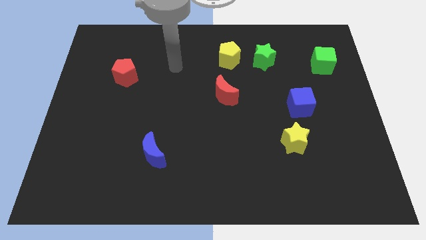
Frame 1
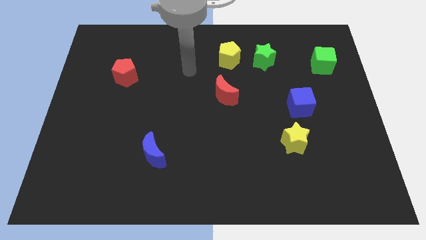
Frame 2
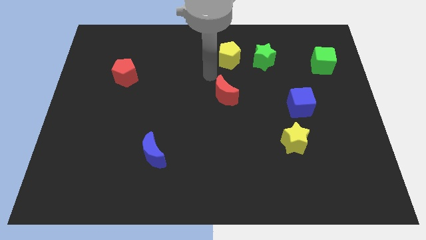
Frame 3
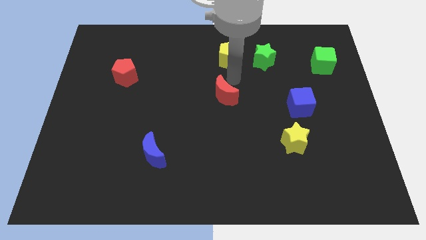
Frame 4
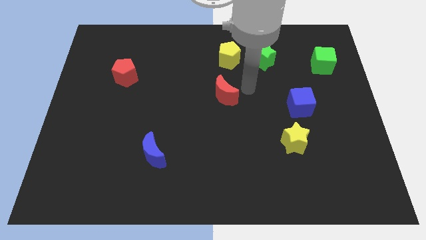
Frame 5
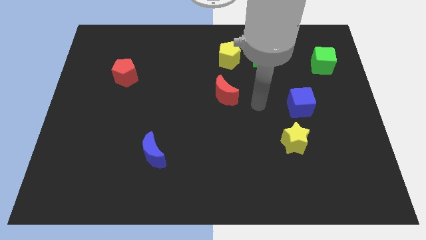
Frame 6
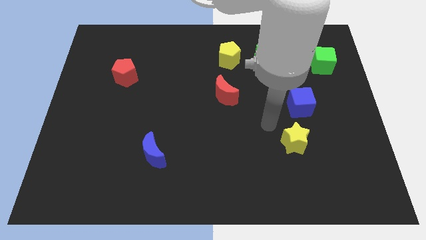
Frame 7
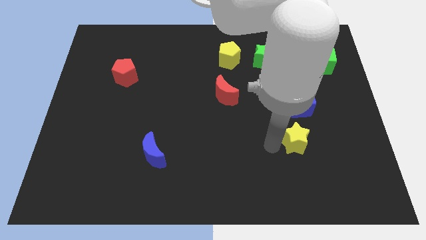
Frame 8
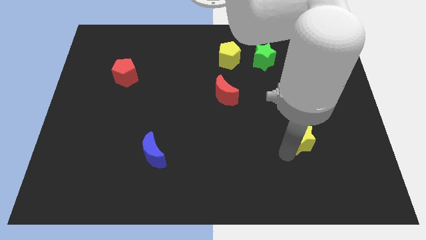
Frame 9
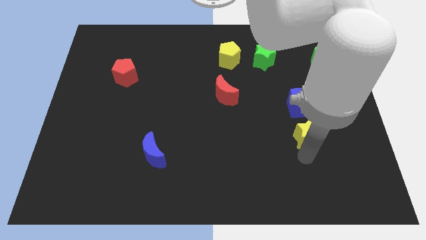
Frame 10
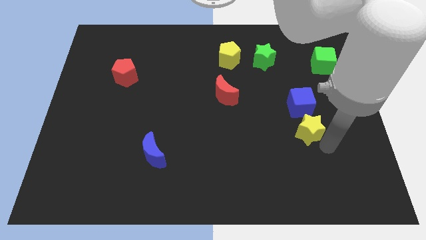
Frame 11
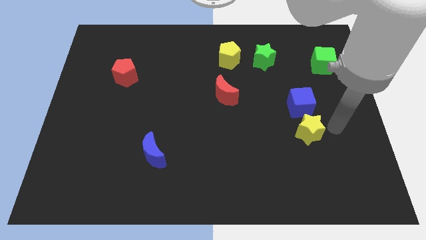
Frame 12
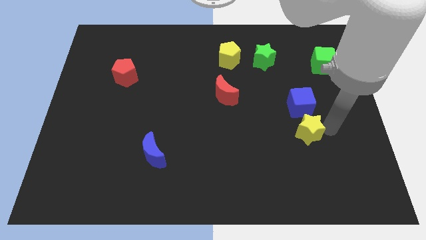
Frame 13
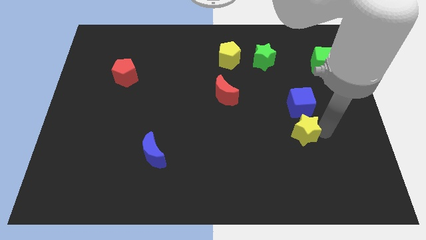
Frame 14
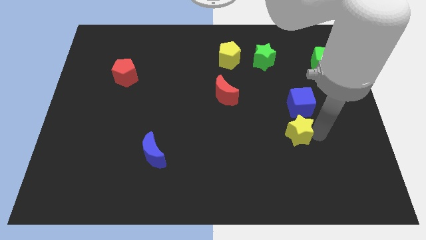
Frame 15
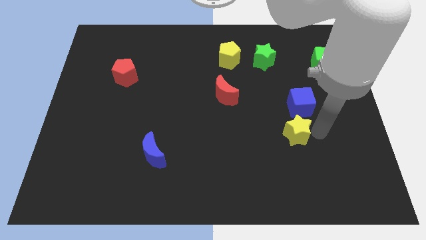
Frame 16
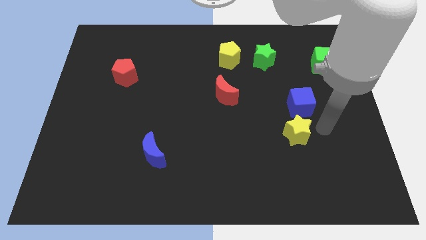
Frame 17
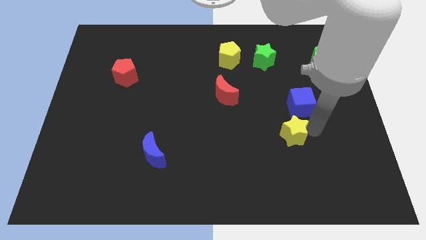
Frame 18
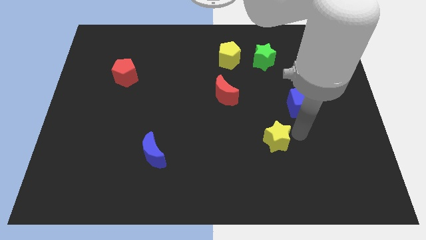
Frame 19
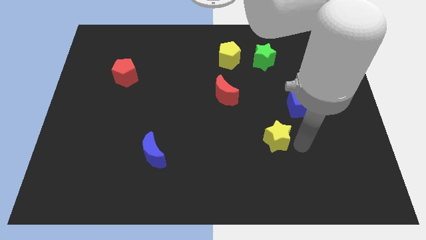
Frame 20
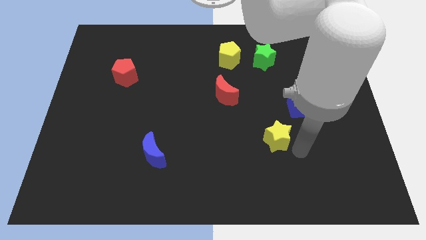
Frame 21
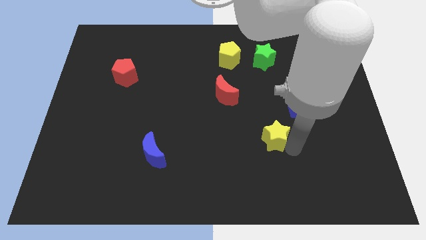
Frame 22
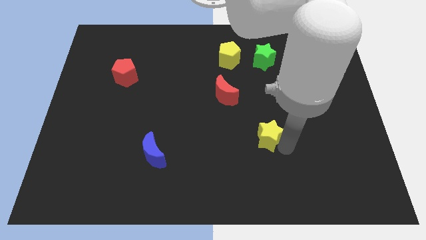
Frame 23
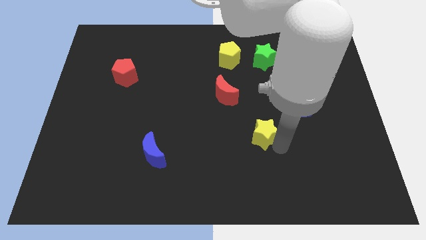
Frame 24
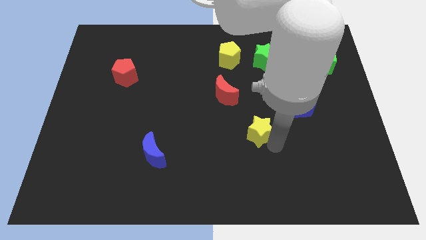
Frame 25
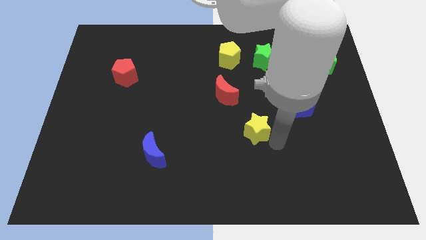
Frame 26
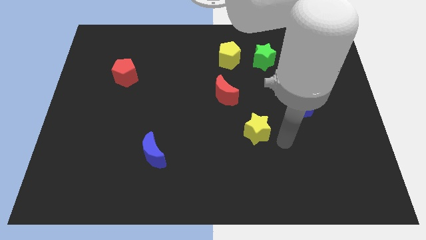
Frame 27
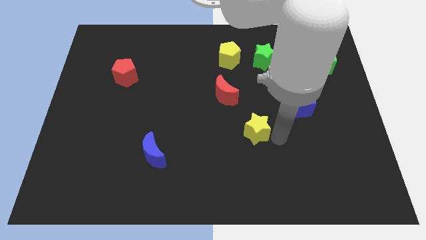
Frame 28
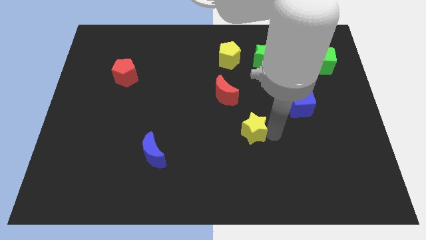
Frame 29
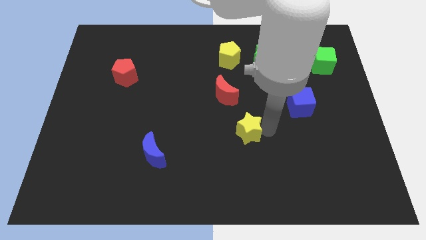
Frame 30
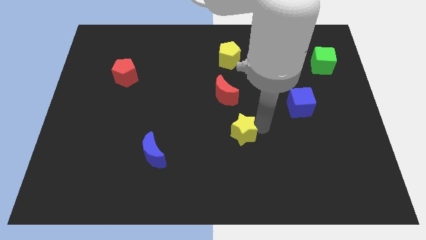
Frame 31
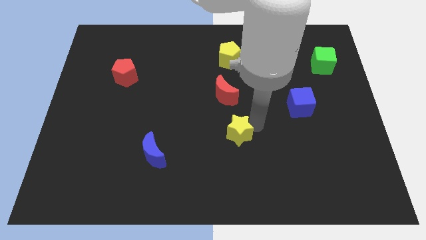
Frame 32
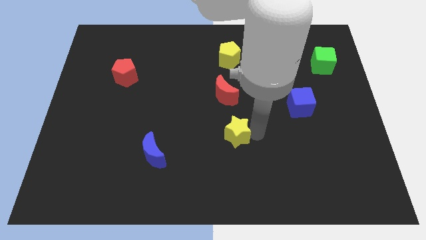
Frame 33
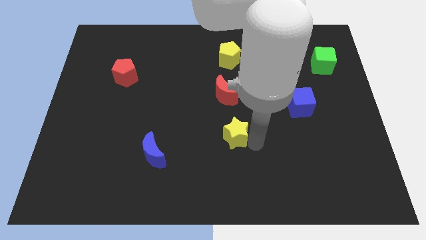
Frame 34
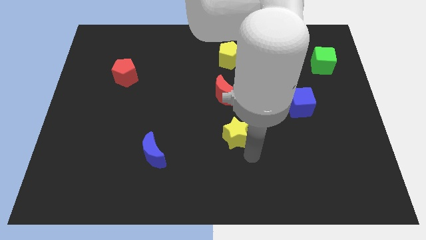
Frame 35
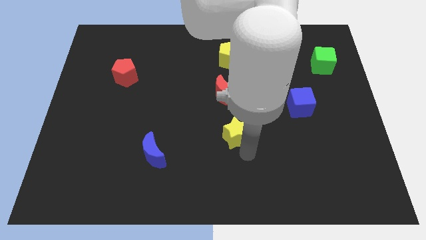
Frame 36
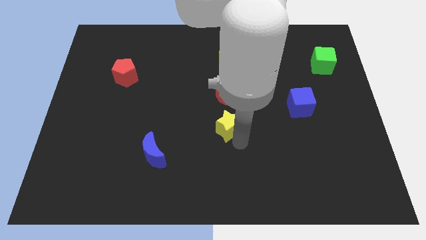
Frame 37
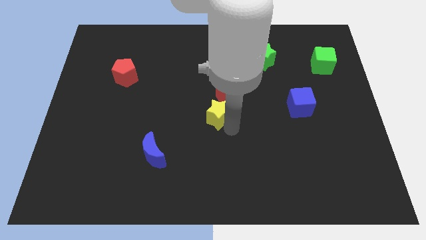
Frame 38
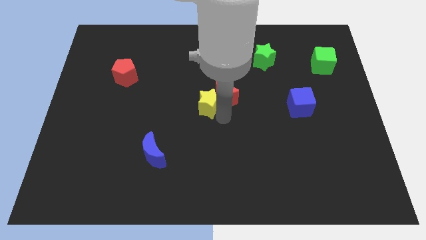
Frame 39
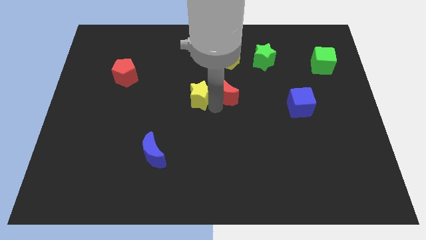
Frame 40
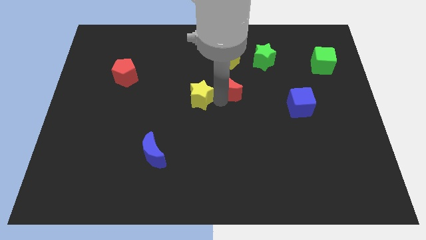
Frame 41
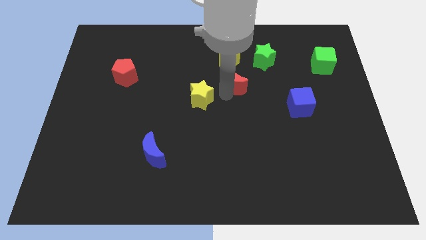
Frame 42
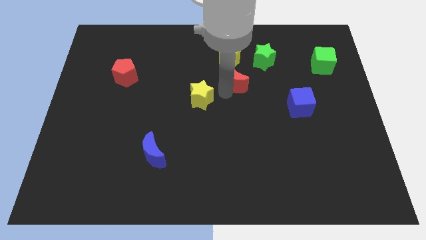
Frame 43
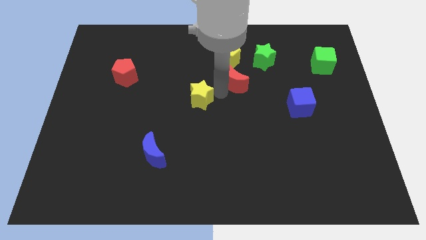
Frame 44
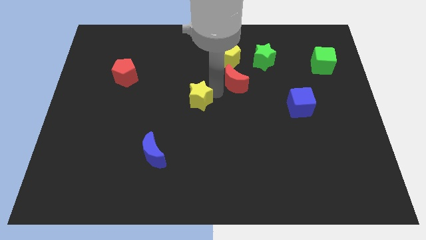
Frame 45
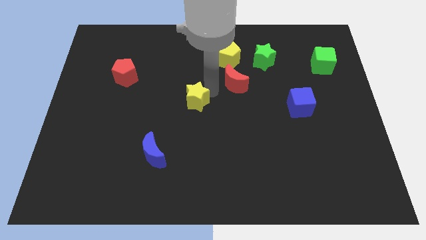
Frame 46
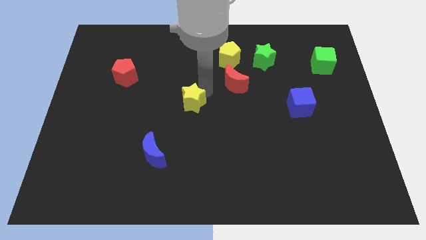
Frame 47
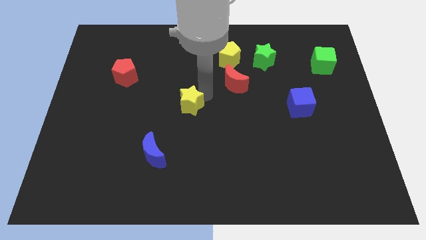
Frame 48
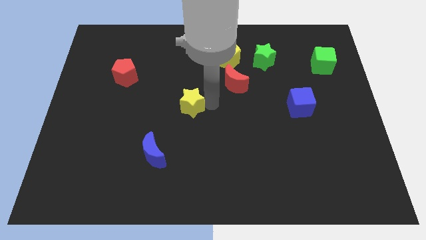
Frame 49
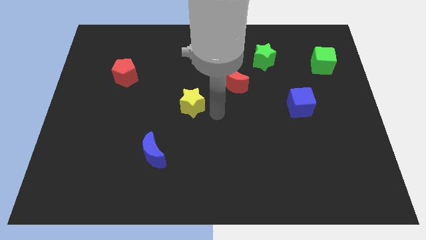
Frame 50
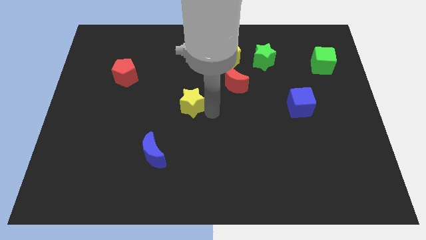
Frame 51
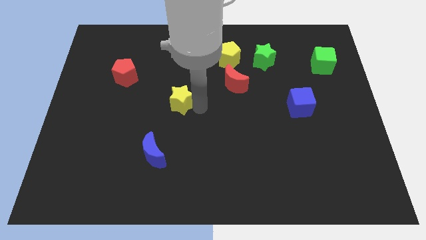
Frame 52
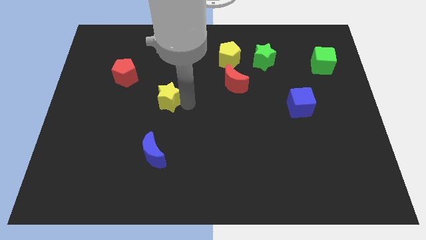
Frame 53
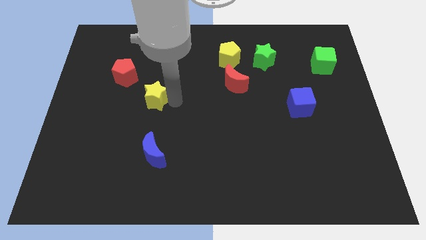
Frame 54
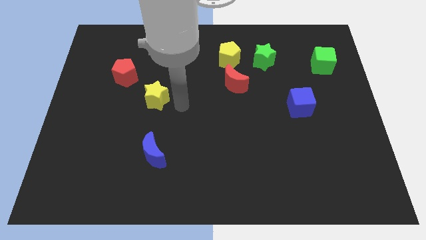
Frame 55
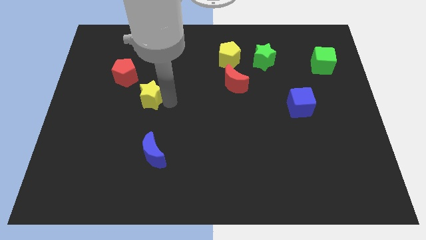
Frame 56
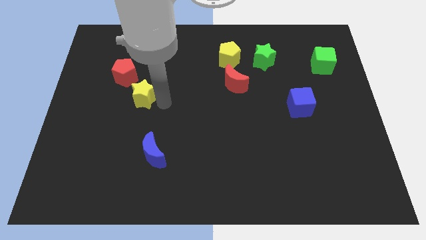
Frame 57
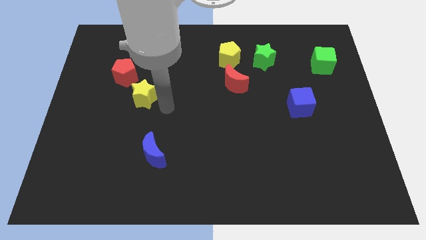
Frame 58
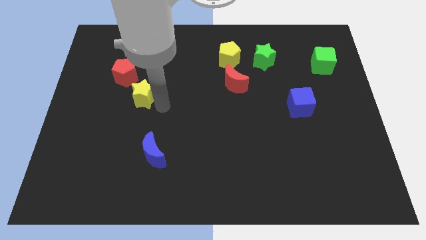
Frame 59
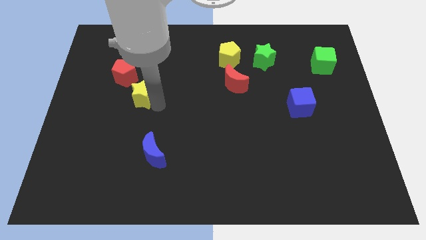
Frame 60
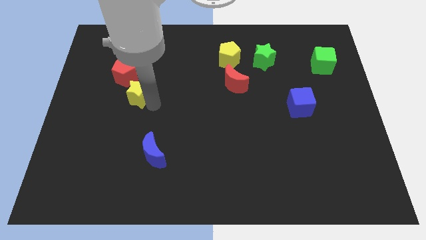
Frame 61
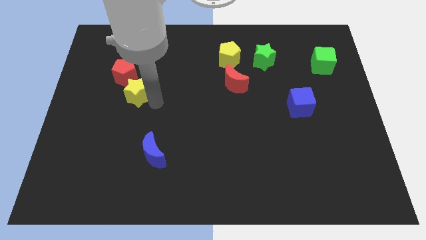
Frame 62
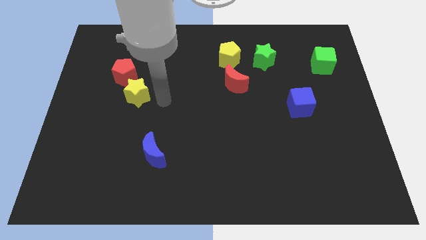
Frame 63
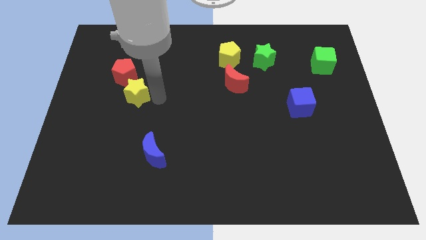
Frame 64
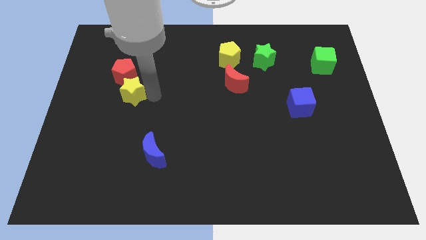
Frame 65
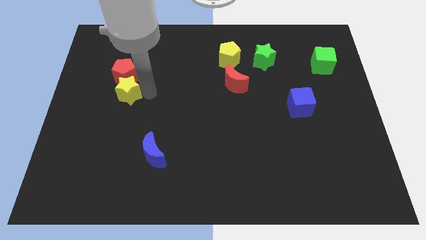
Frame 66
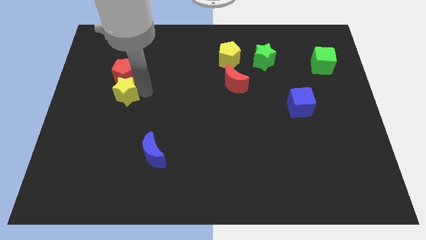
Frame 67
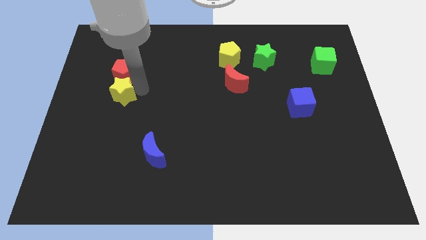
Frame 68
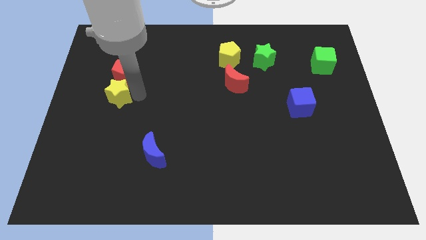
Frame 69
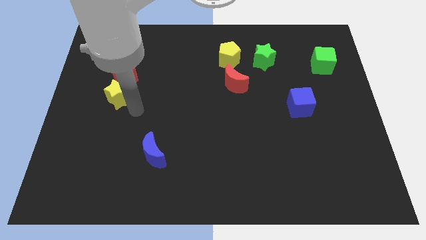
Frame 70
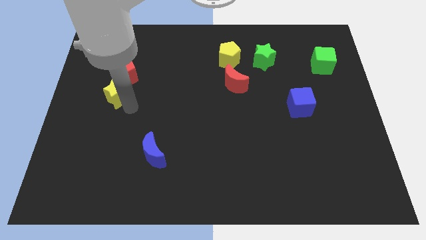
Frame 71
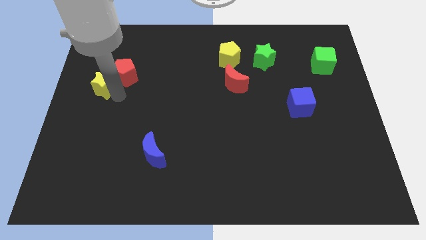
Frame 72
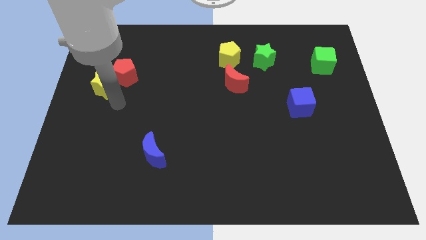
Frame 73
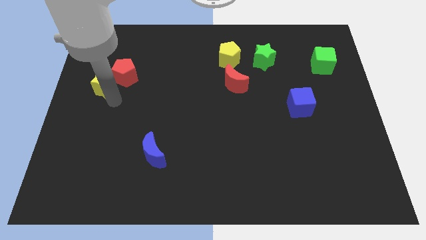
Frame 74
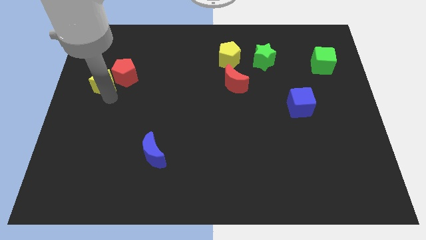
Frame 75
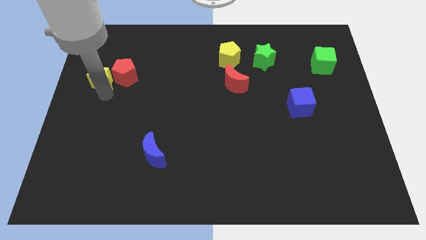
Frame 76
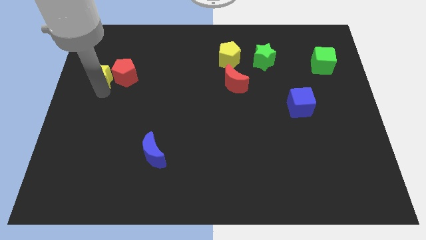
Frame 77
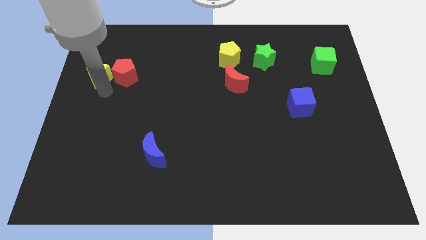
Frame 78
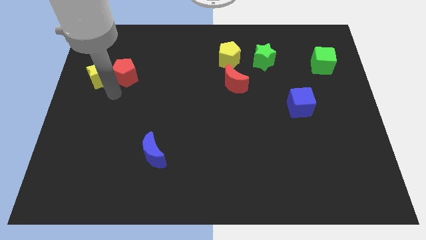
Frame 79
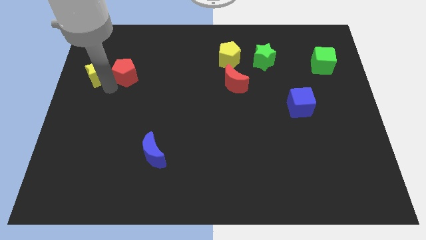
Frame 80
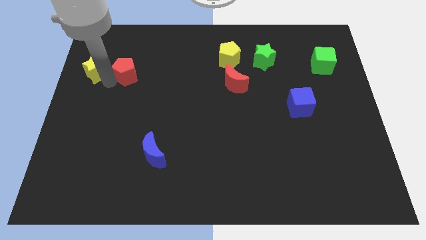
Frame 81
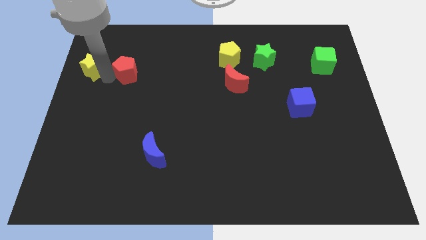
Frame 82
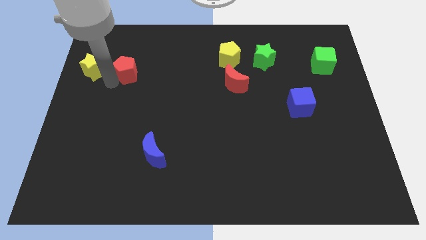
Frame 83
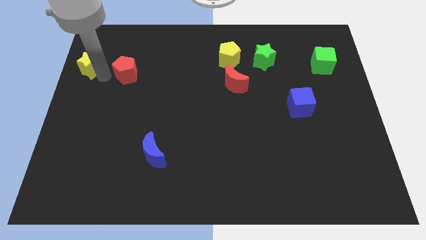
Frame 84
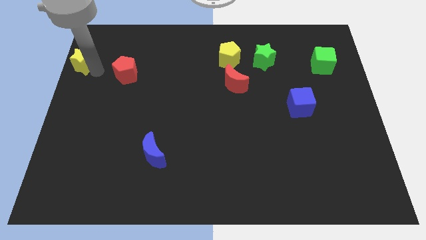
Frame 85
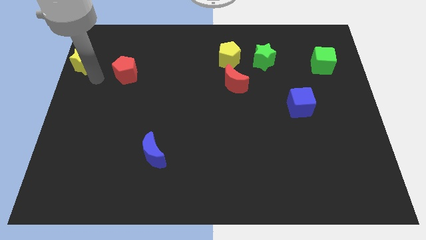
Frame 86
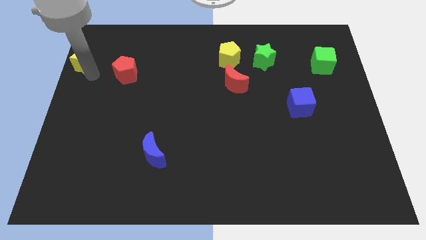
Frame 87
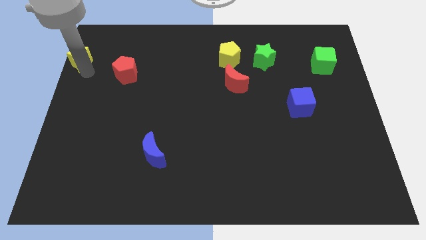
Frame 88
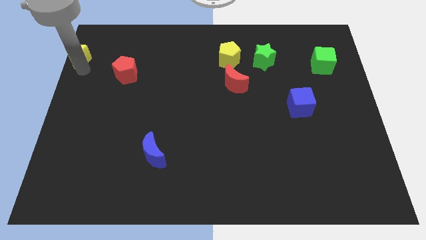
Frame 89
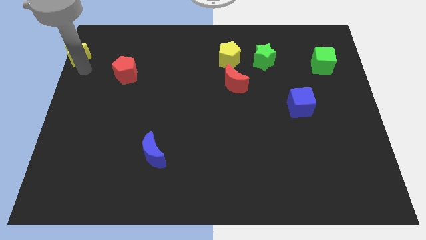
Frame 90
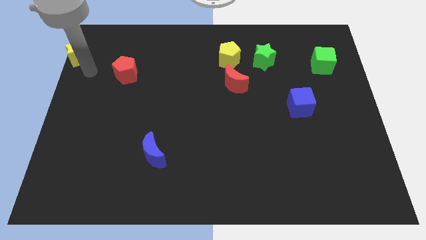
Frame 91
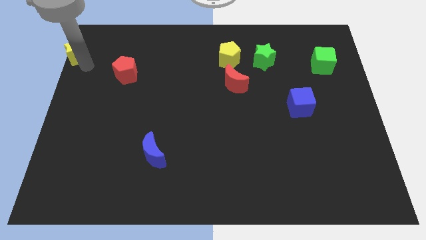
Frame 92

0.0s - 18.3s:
put the yellow star to the upper left corner
